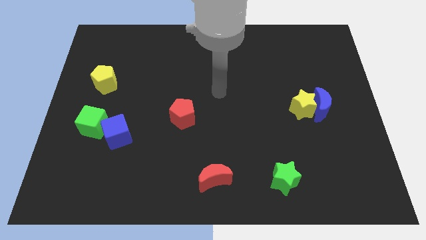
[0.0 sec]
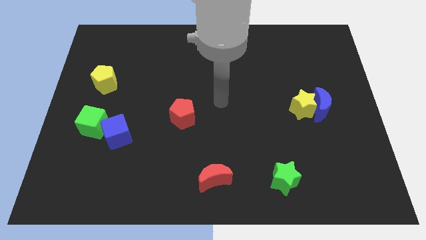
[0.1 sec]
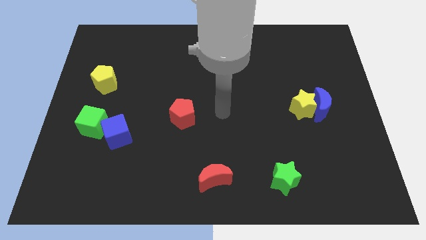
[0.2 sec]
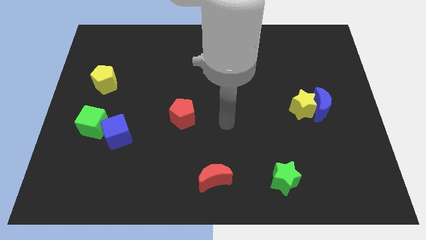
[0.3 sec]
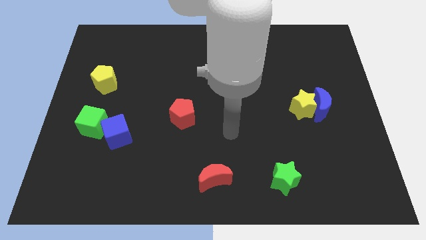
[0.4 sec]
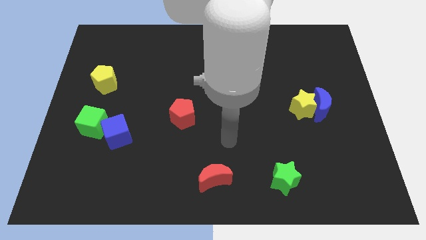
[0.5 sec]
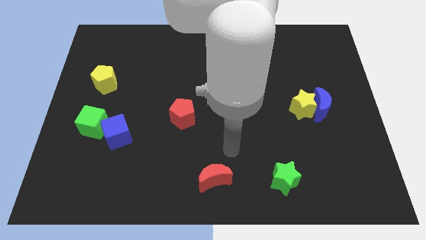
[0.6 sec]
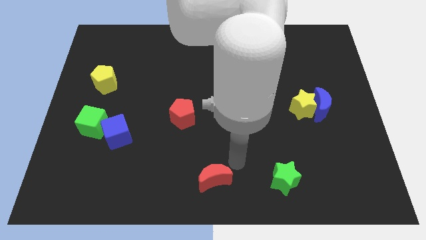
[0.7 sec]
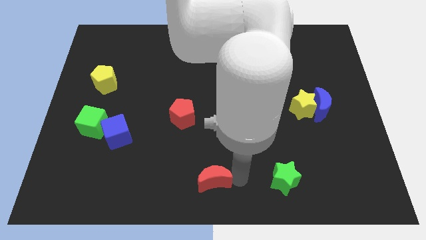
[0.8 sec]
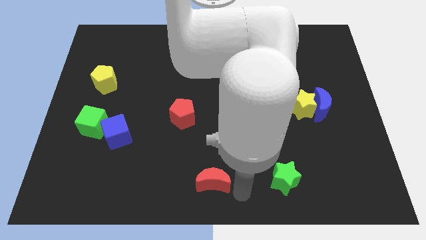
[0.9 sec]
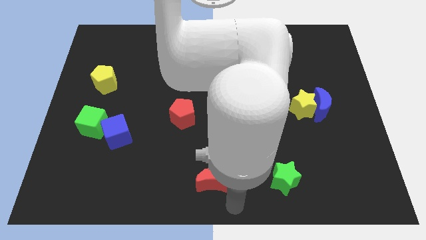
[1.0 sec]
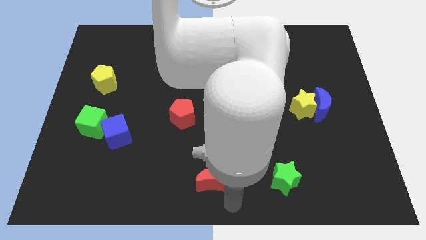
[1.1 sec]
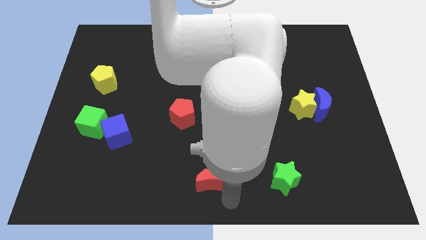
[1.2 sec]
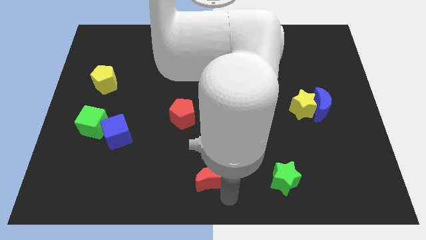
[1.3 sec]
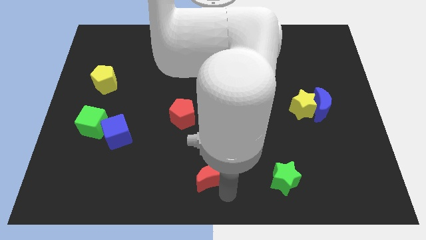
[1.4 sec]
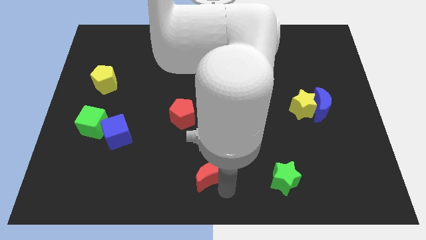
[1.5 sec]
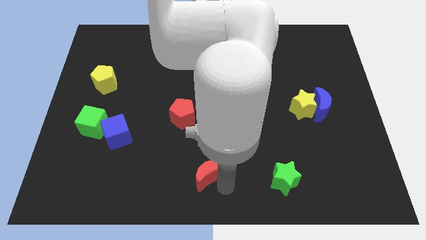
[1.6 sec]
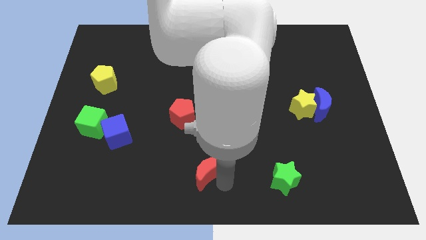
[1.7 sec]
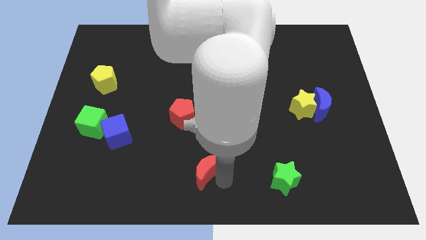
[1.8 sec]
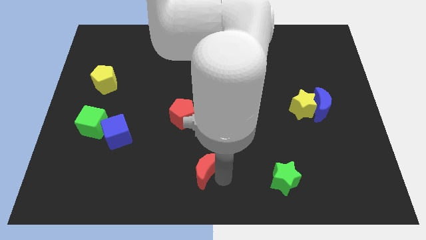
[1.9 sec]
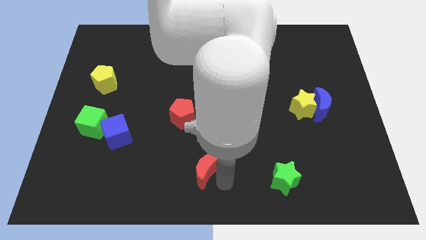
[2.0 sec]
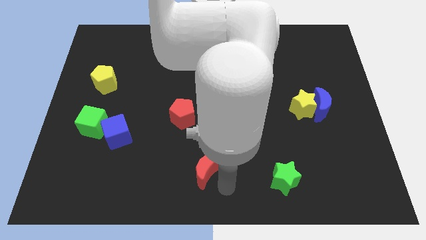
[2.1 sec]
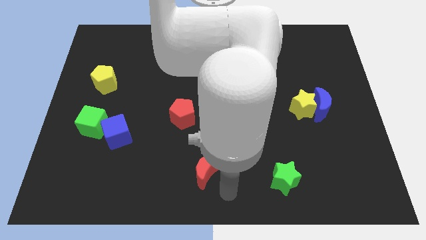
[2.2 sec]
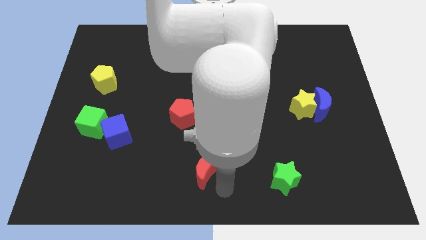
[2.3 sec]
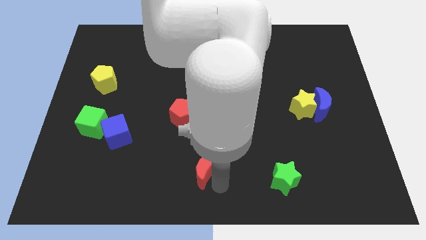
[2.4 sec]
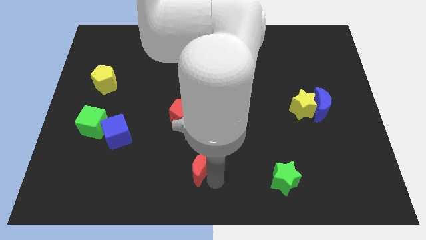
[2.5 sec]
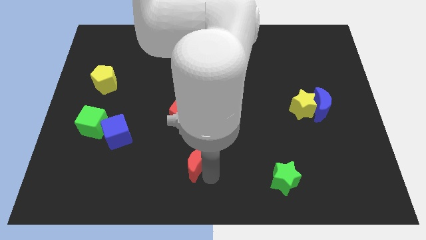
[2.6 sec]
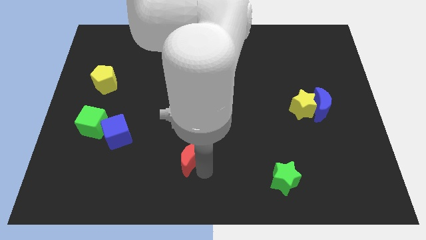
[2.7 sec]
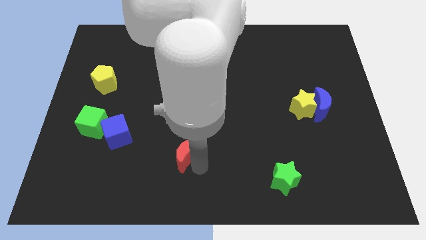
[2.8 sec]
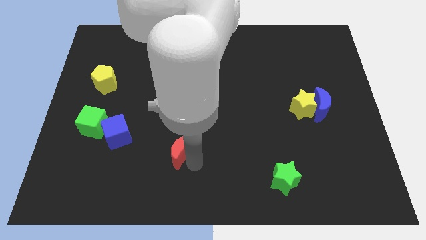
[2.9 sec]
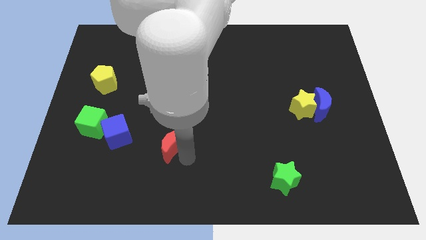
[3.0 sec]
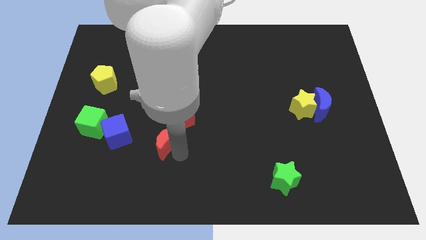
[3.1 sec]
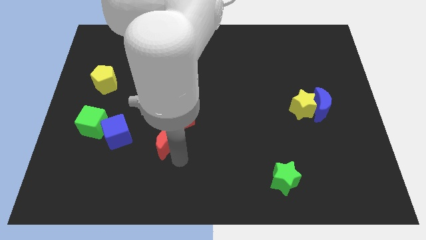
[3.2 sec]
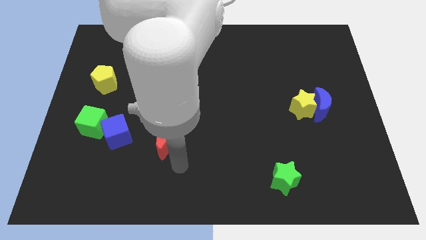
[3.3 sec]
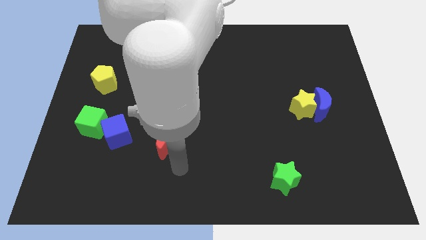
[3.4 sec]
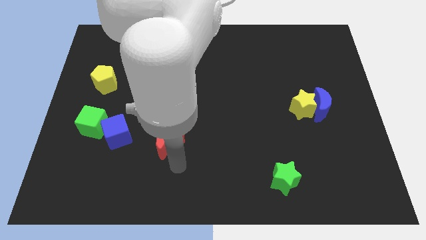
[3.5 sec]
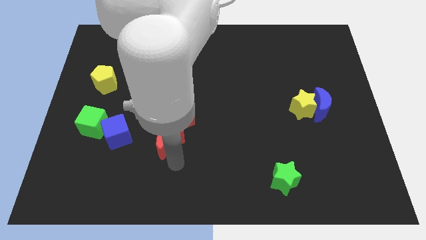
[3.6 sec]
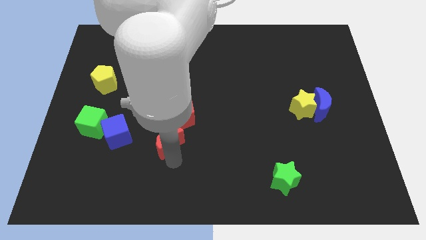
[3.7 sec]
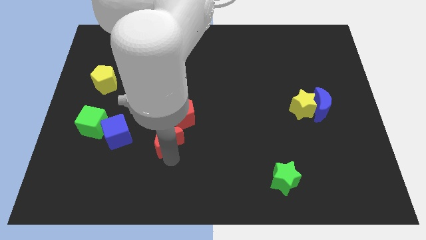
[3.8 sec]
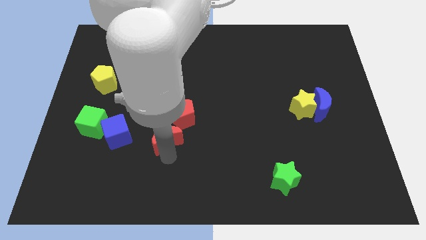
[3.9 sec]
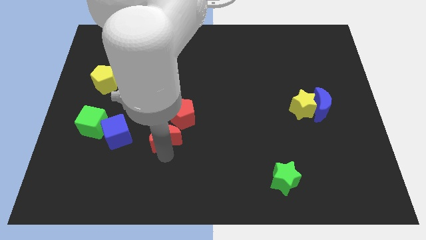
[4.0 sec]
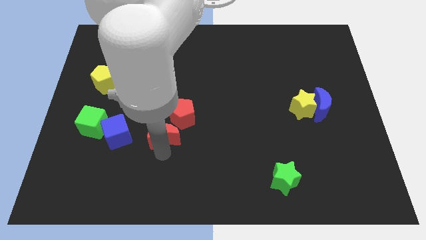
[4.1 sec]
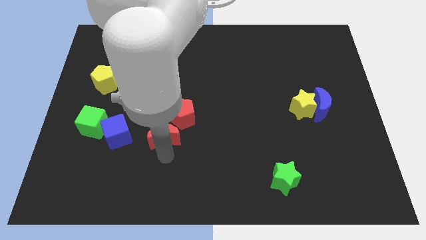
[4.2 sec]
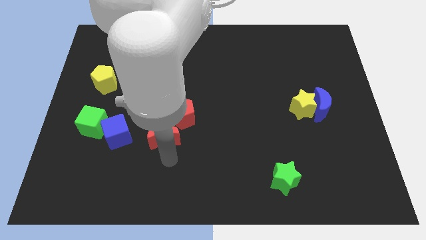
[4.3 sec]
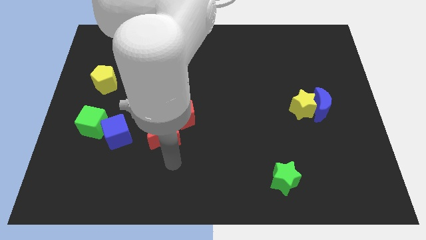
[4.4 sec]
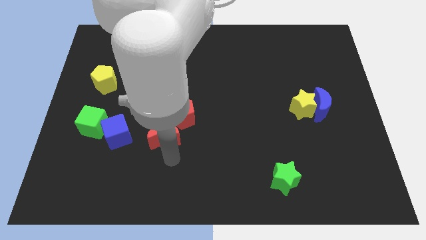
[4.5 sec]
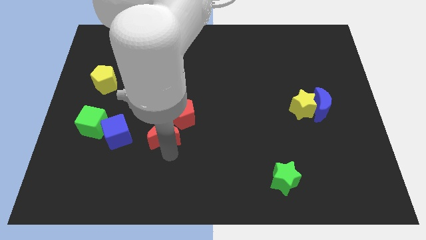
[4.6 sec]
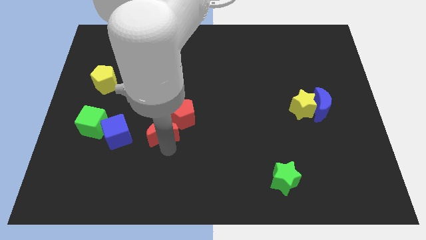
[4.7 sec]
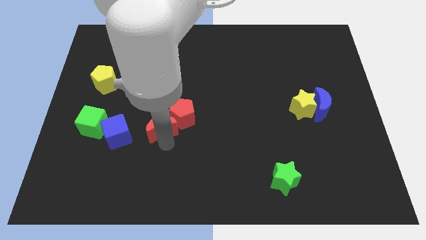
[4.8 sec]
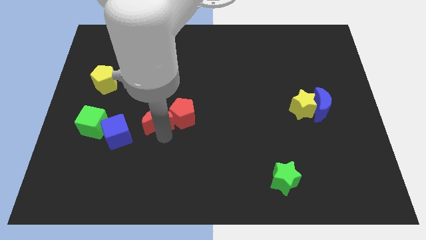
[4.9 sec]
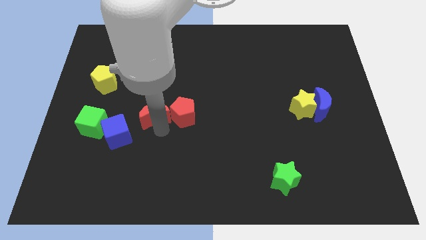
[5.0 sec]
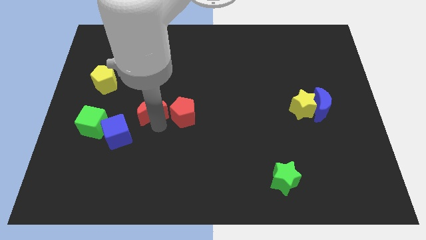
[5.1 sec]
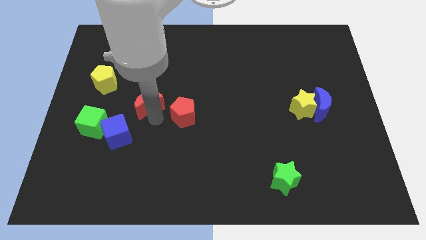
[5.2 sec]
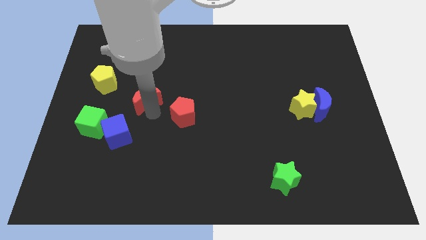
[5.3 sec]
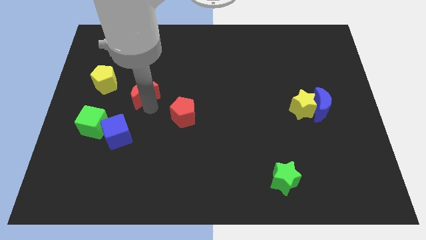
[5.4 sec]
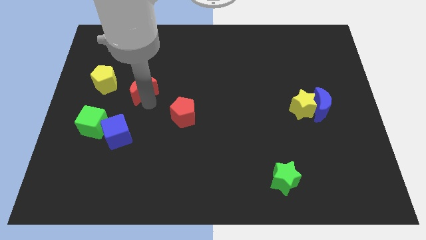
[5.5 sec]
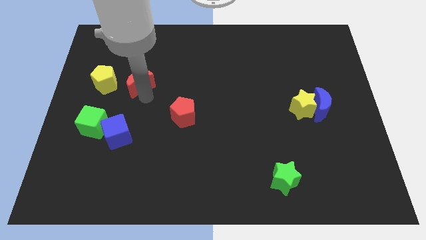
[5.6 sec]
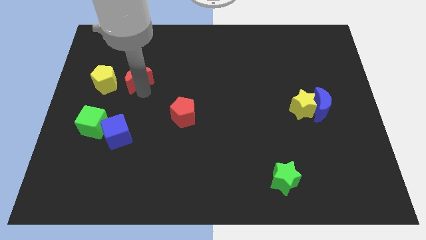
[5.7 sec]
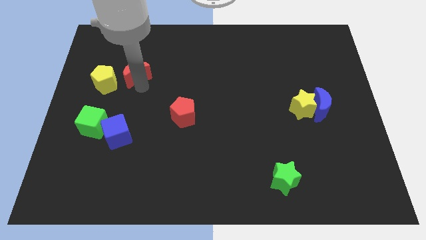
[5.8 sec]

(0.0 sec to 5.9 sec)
push the red moon to the top right of the yellow pentagon

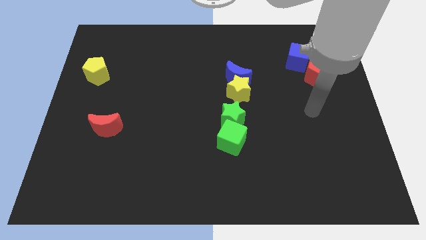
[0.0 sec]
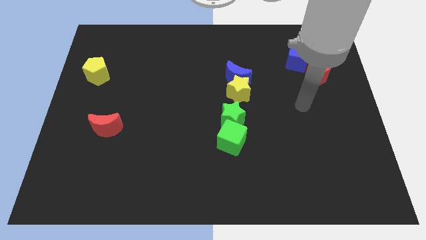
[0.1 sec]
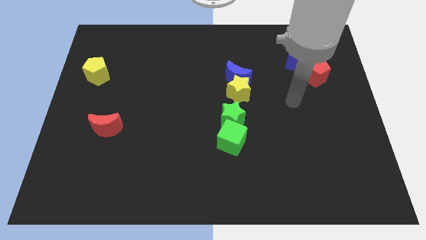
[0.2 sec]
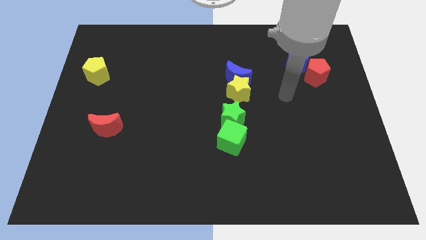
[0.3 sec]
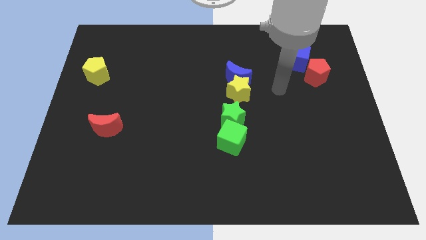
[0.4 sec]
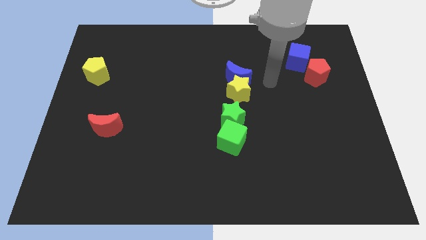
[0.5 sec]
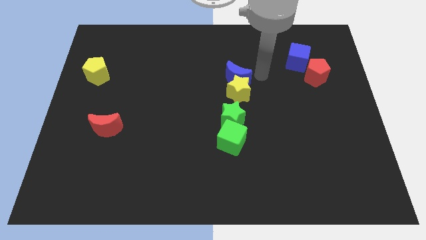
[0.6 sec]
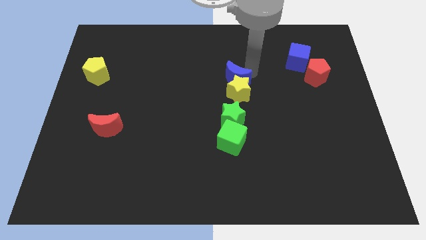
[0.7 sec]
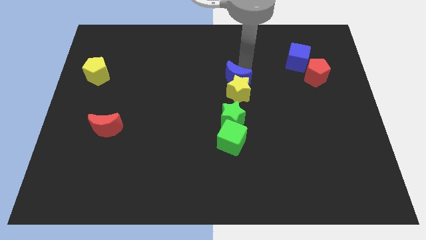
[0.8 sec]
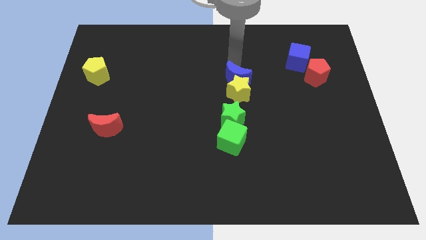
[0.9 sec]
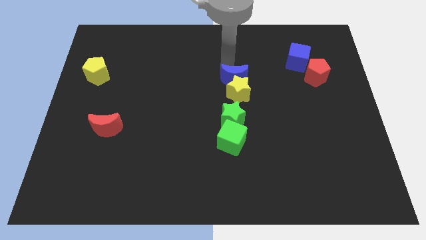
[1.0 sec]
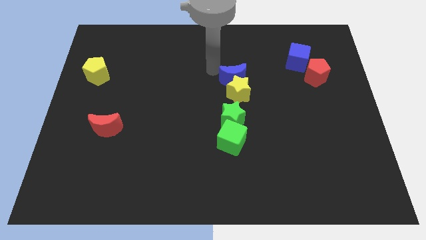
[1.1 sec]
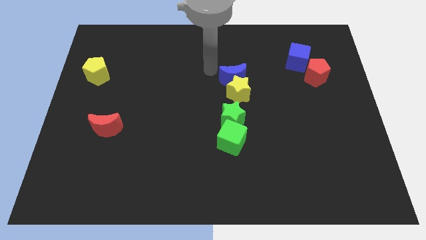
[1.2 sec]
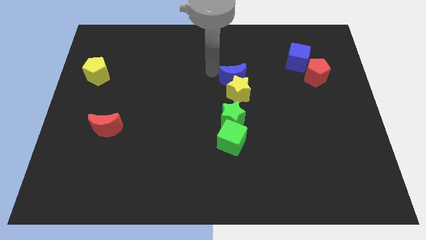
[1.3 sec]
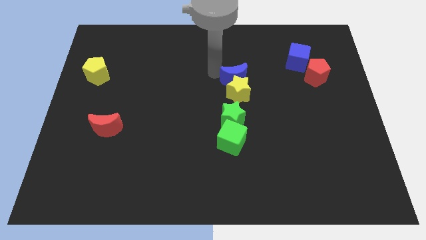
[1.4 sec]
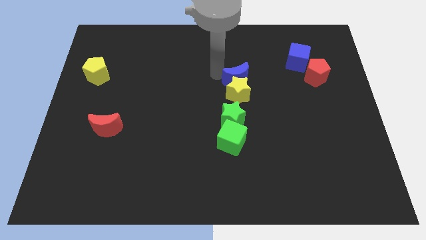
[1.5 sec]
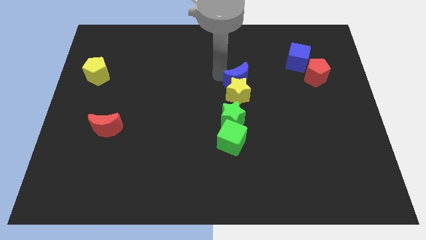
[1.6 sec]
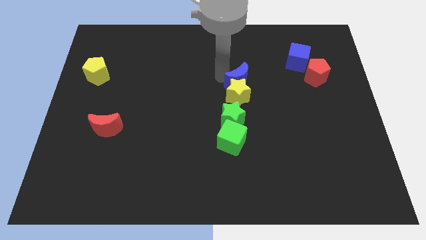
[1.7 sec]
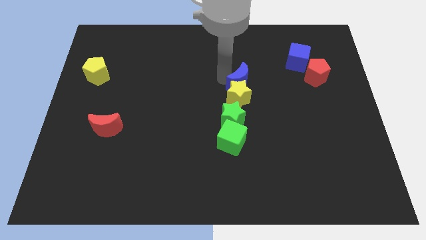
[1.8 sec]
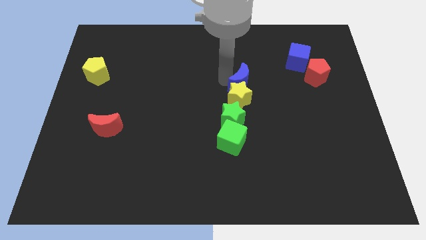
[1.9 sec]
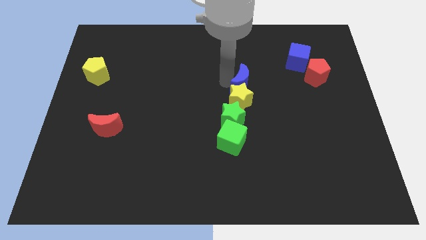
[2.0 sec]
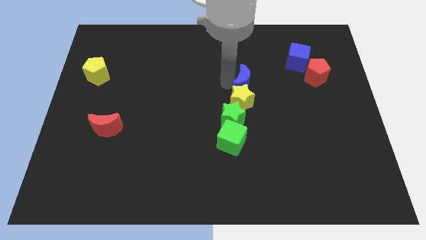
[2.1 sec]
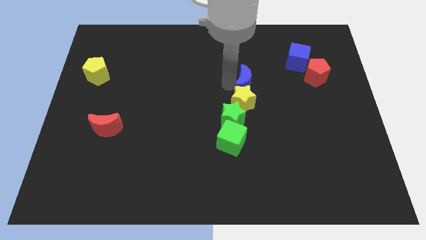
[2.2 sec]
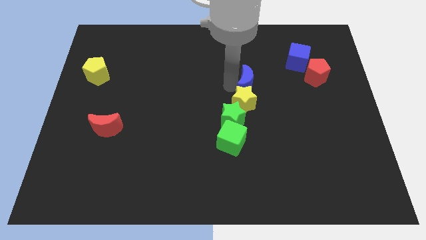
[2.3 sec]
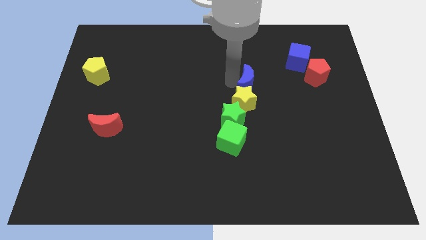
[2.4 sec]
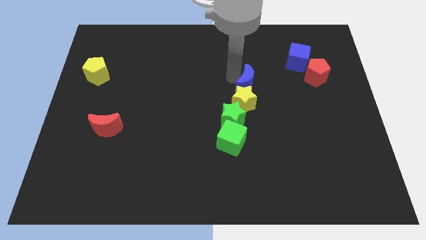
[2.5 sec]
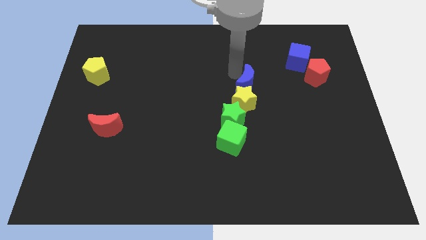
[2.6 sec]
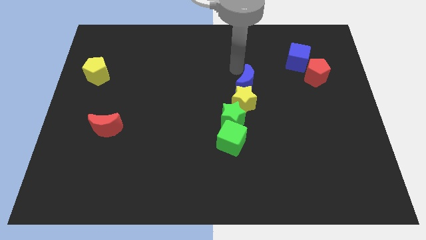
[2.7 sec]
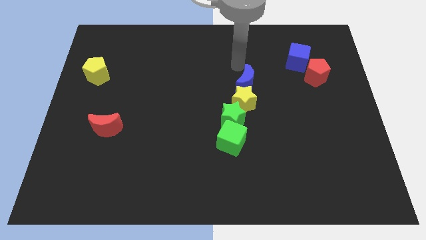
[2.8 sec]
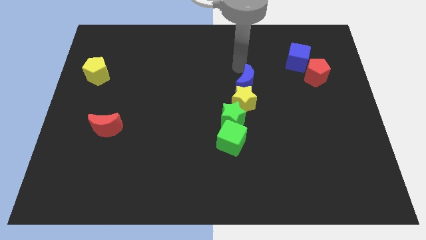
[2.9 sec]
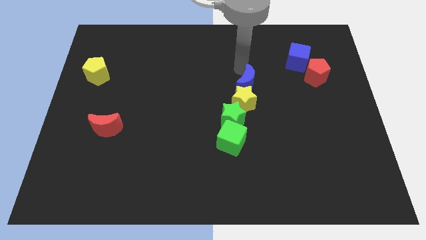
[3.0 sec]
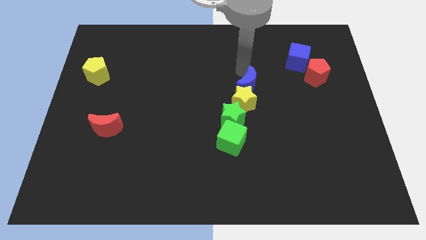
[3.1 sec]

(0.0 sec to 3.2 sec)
put the blue moon to the top right of the green star
